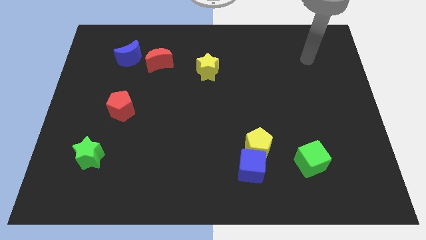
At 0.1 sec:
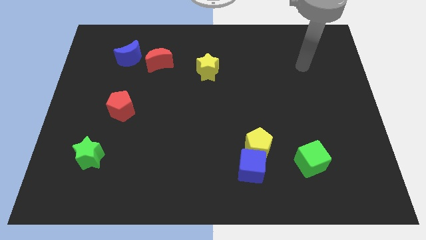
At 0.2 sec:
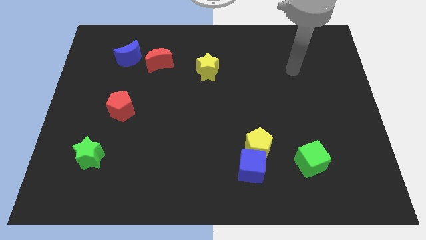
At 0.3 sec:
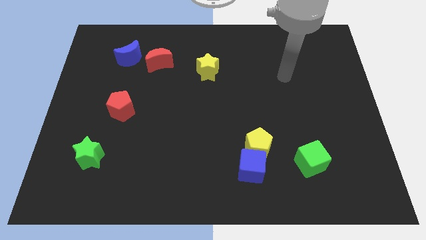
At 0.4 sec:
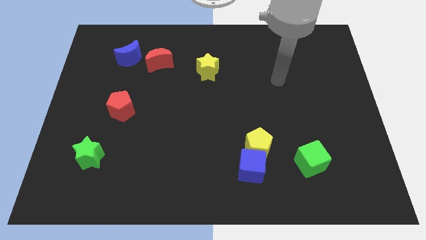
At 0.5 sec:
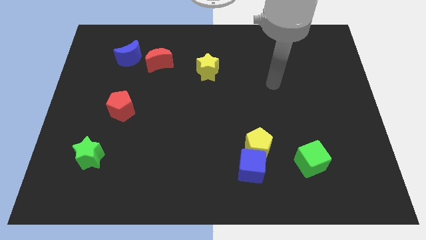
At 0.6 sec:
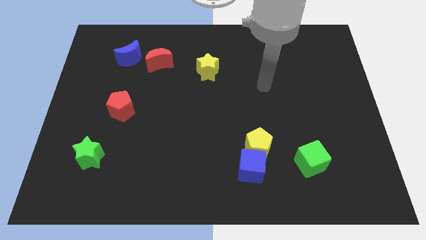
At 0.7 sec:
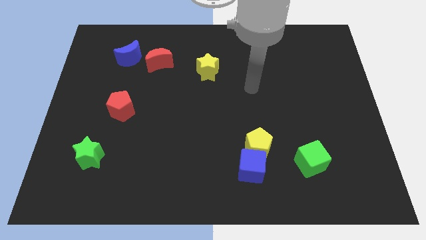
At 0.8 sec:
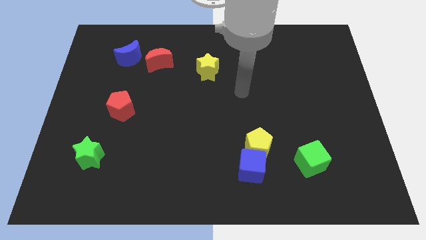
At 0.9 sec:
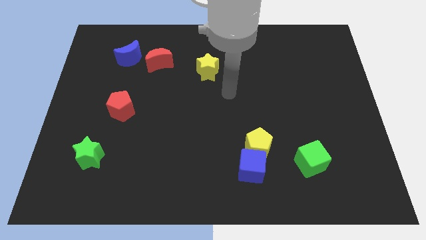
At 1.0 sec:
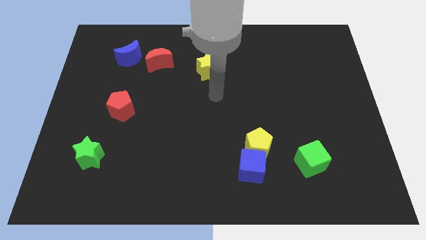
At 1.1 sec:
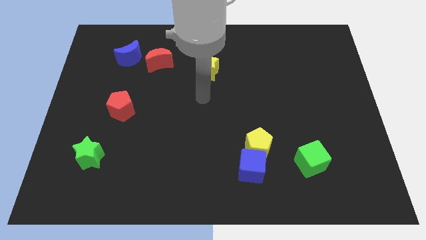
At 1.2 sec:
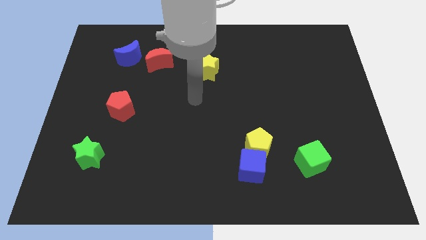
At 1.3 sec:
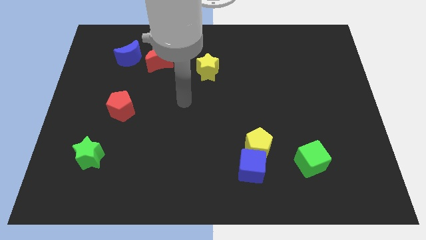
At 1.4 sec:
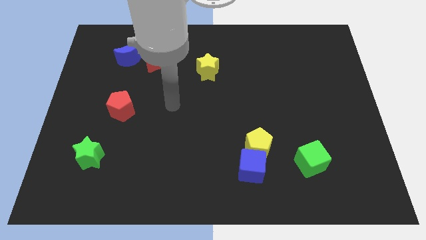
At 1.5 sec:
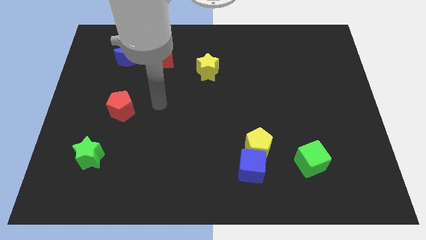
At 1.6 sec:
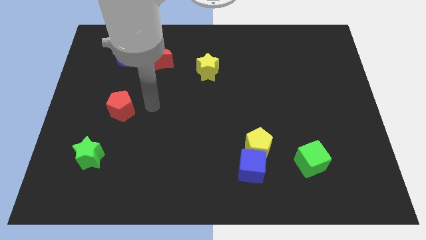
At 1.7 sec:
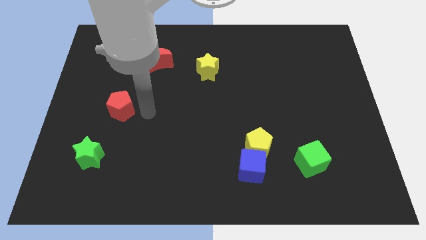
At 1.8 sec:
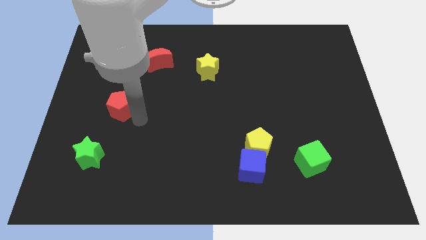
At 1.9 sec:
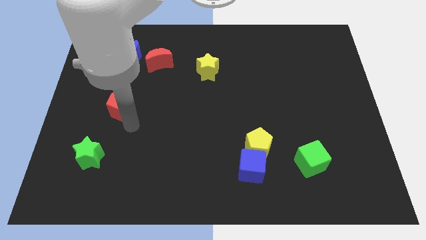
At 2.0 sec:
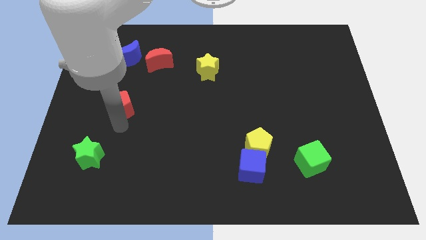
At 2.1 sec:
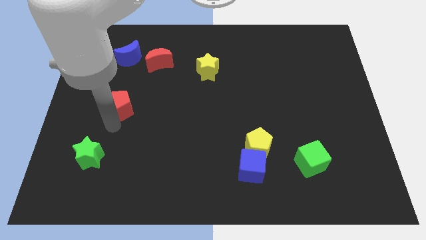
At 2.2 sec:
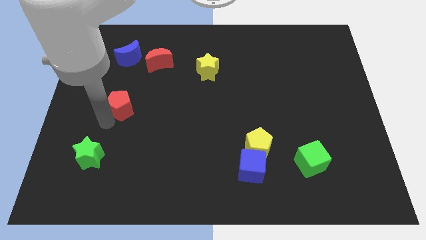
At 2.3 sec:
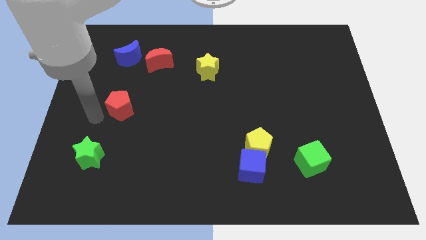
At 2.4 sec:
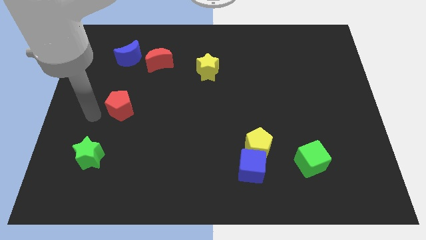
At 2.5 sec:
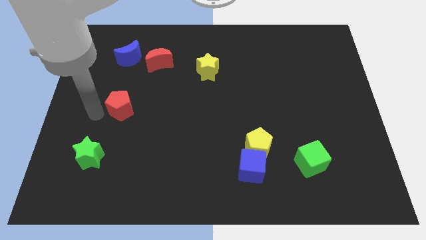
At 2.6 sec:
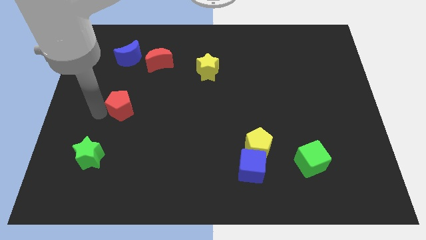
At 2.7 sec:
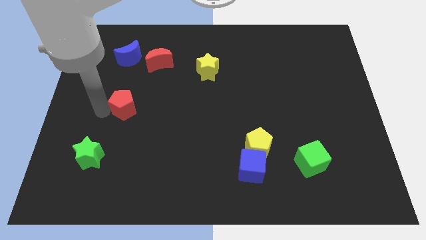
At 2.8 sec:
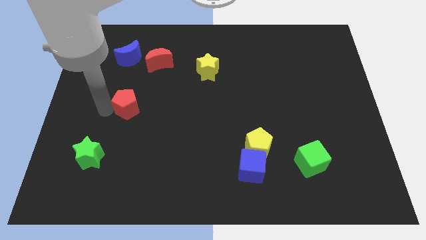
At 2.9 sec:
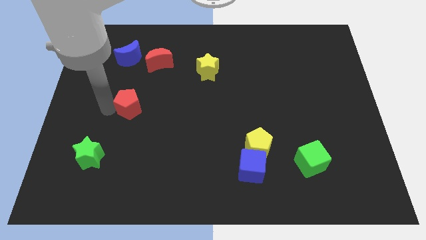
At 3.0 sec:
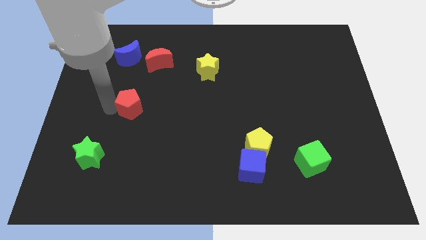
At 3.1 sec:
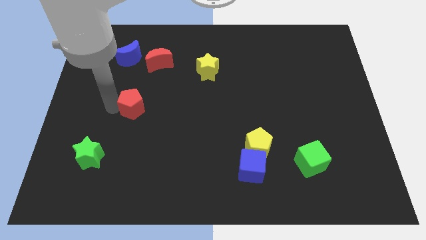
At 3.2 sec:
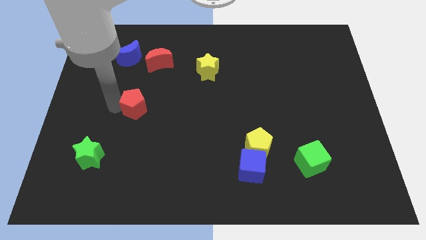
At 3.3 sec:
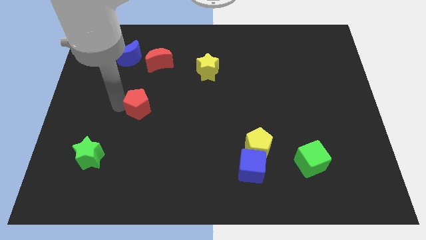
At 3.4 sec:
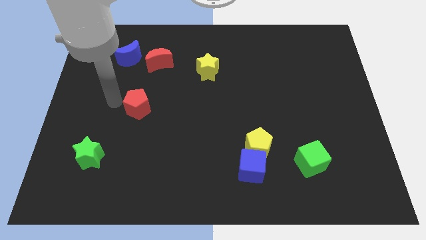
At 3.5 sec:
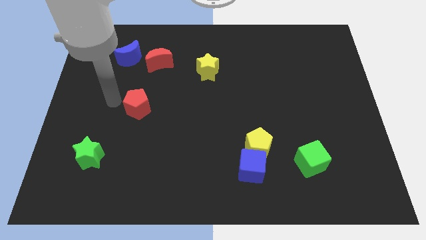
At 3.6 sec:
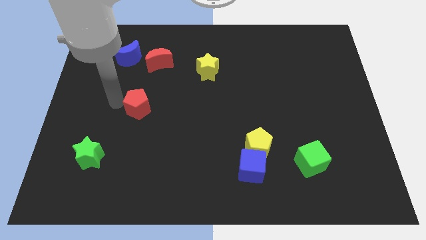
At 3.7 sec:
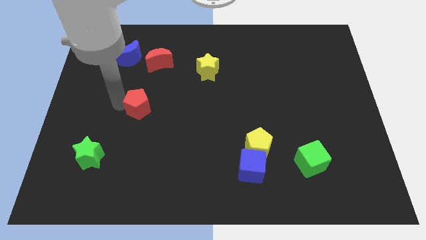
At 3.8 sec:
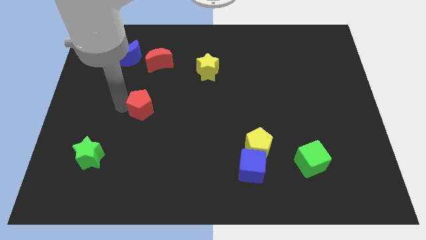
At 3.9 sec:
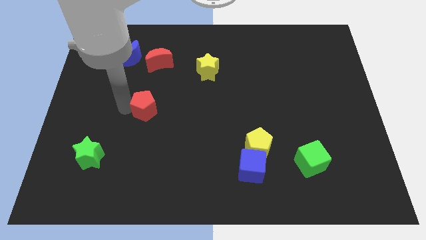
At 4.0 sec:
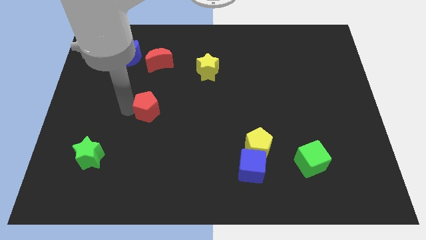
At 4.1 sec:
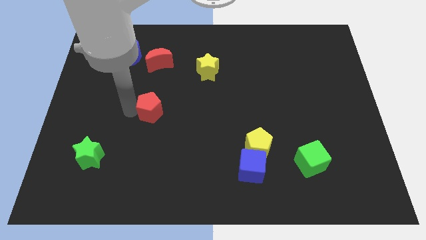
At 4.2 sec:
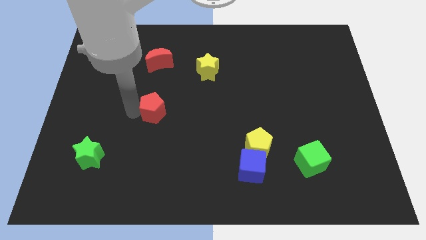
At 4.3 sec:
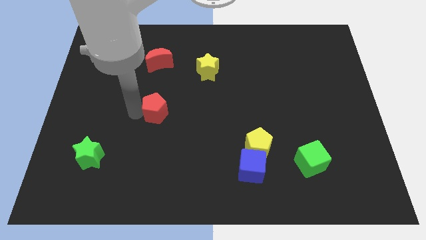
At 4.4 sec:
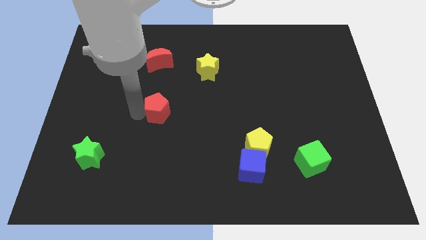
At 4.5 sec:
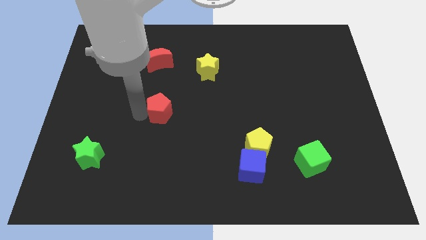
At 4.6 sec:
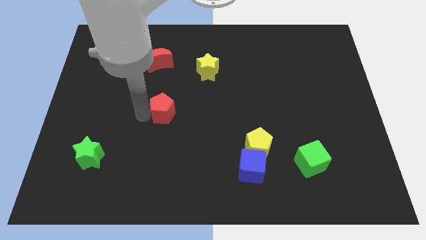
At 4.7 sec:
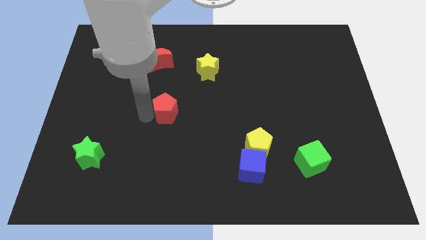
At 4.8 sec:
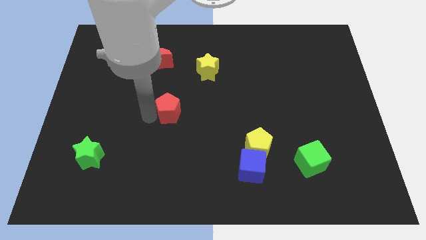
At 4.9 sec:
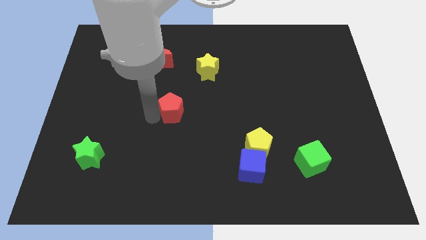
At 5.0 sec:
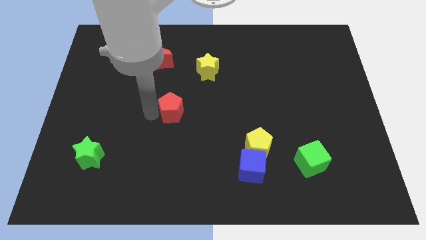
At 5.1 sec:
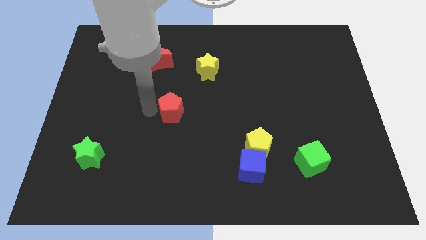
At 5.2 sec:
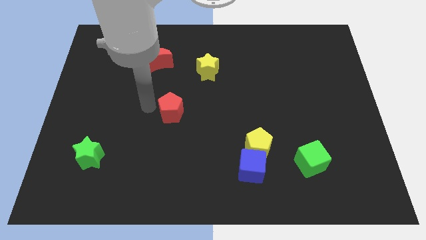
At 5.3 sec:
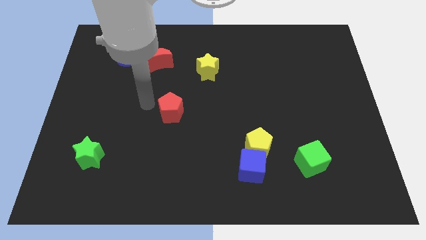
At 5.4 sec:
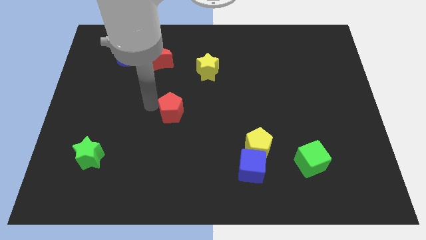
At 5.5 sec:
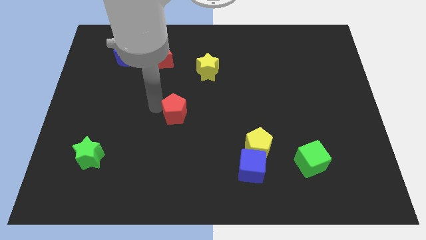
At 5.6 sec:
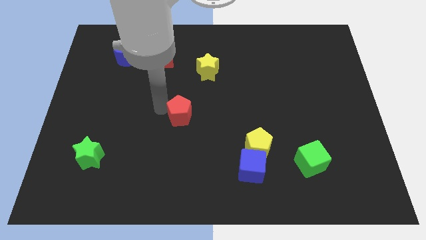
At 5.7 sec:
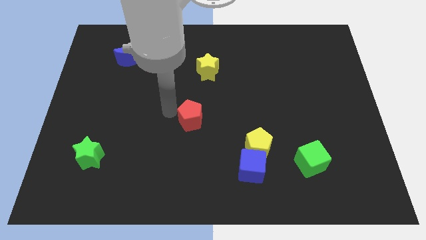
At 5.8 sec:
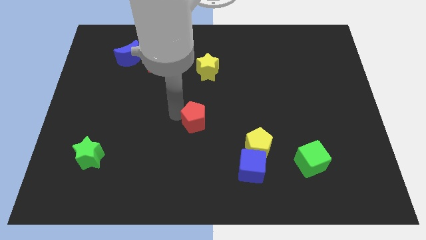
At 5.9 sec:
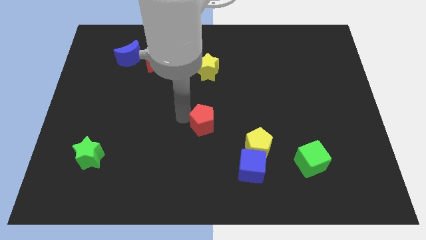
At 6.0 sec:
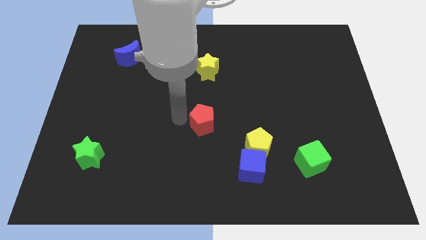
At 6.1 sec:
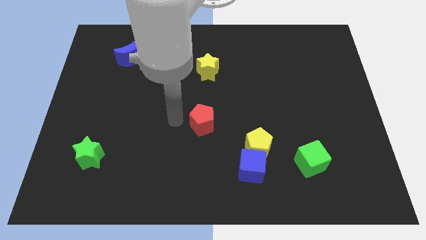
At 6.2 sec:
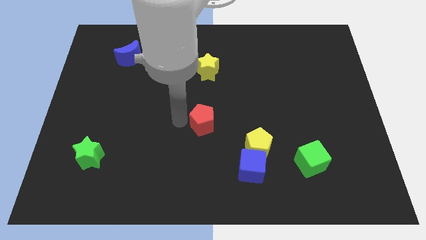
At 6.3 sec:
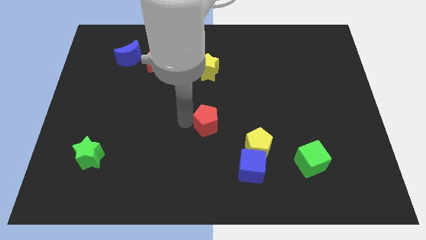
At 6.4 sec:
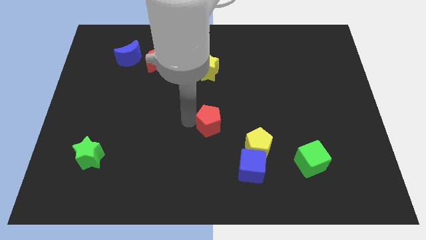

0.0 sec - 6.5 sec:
slide the red pentagon to the top left side of the yellow pentagon

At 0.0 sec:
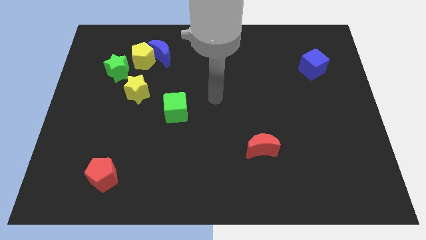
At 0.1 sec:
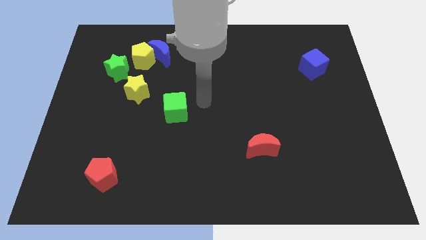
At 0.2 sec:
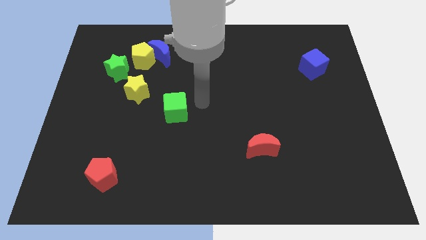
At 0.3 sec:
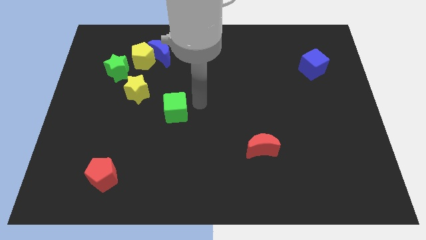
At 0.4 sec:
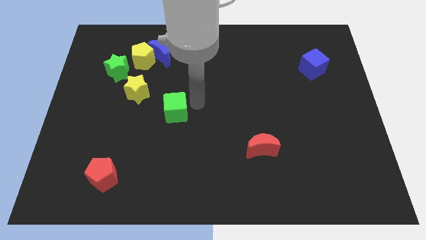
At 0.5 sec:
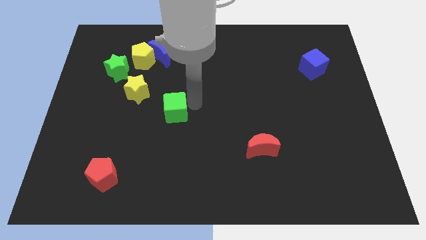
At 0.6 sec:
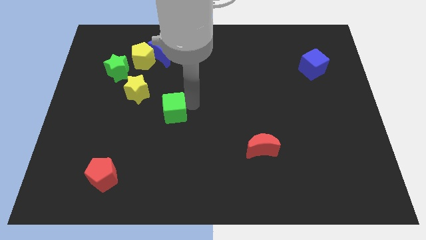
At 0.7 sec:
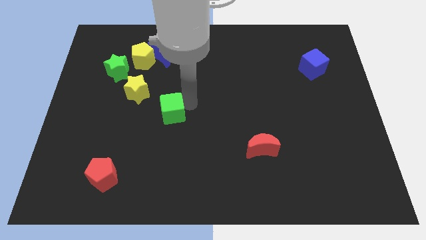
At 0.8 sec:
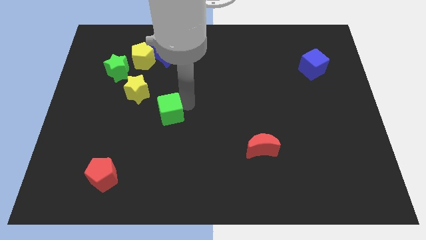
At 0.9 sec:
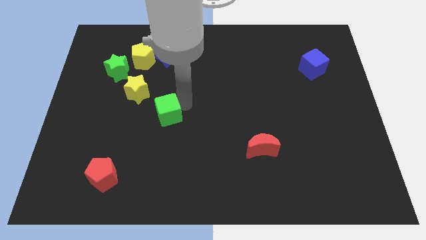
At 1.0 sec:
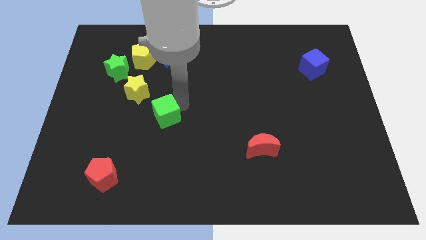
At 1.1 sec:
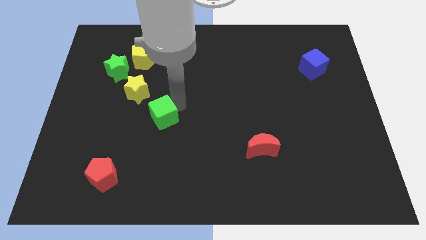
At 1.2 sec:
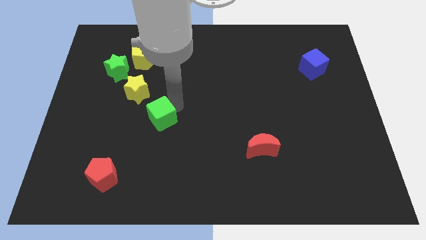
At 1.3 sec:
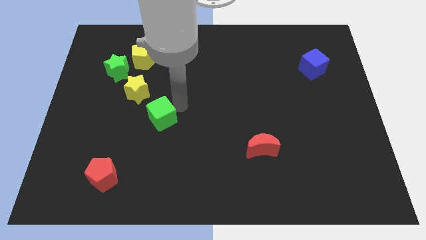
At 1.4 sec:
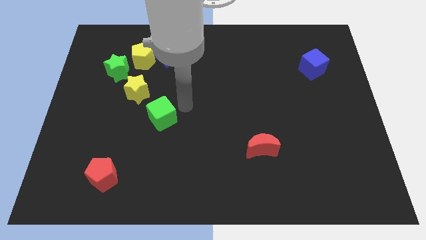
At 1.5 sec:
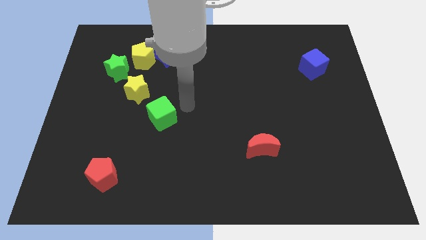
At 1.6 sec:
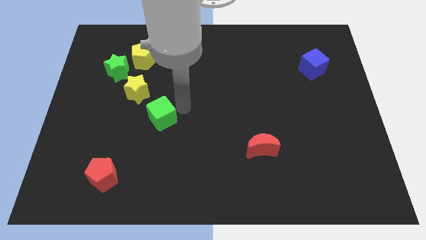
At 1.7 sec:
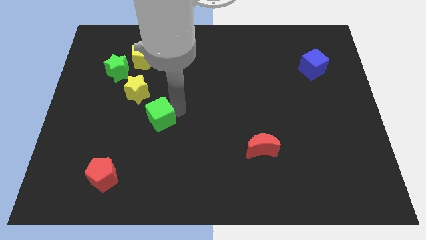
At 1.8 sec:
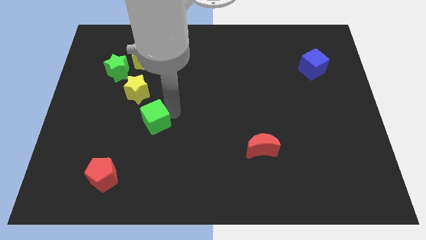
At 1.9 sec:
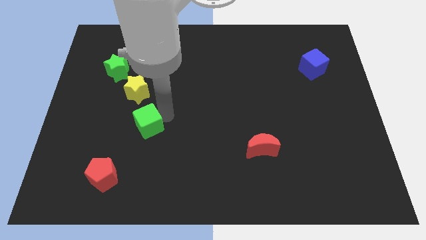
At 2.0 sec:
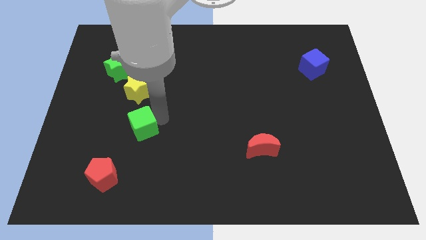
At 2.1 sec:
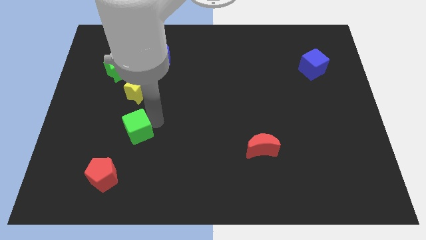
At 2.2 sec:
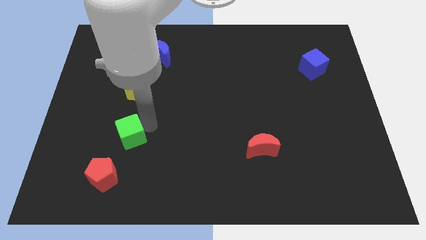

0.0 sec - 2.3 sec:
move the green cube to the top of the red pentagon
